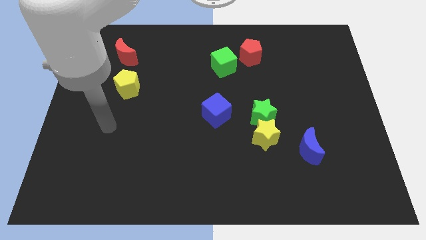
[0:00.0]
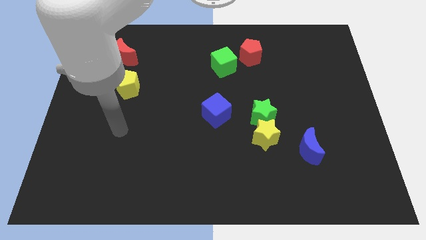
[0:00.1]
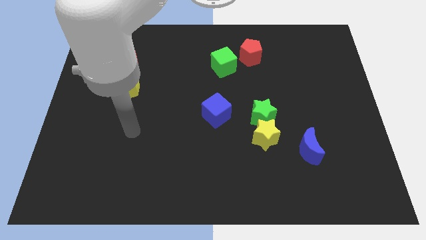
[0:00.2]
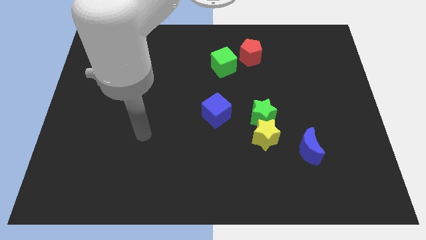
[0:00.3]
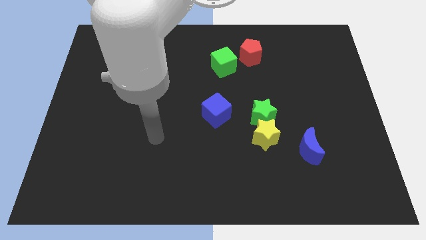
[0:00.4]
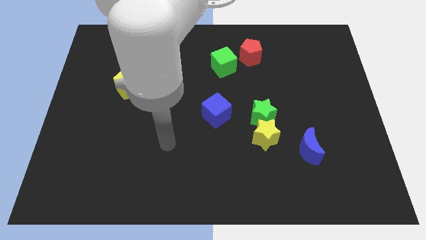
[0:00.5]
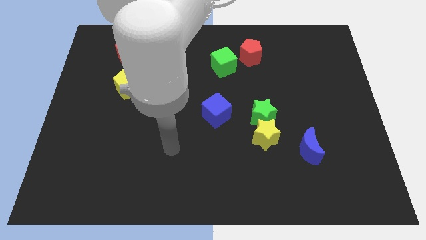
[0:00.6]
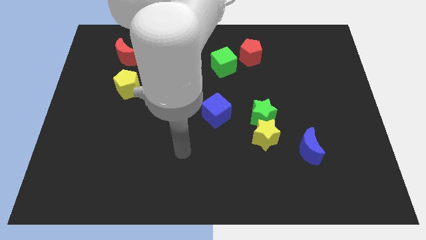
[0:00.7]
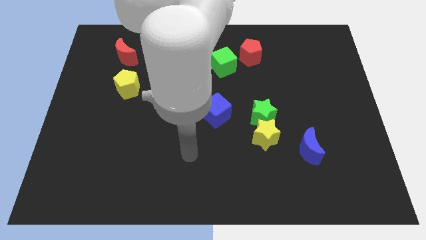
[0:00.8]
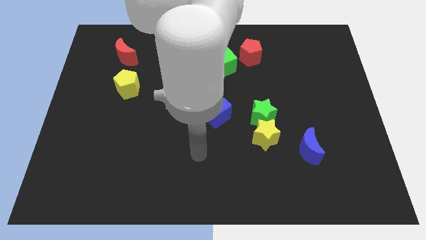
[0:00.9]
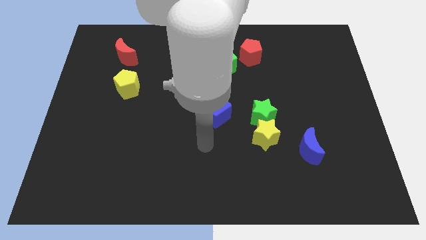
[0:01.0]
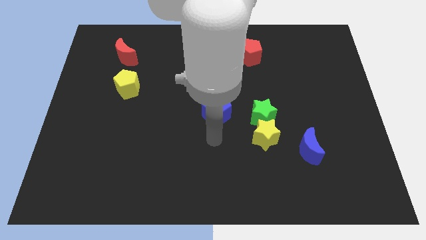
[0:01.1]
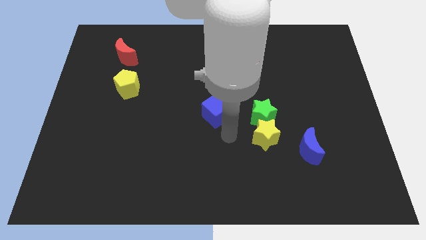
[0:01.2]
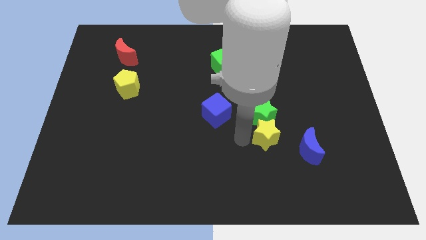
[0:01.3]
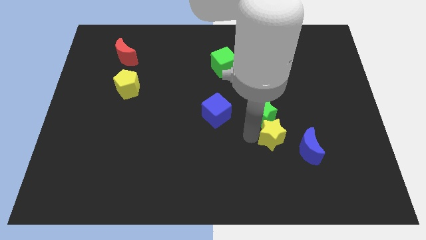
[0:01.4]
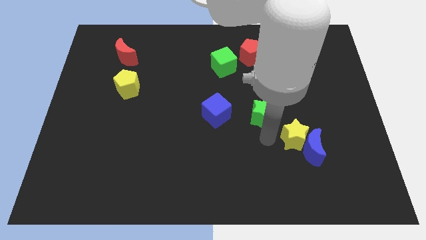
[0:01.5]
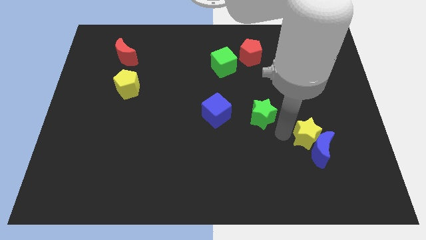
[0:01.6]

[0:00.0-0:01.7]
move the green star away from the yellow star

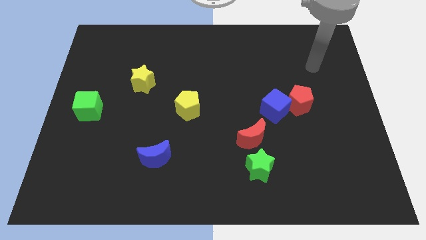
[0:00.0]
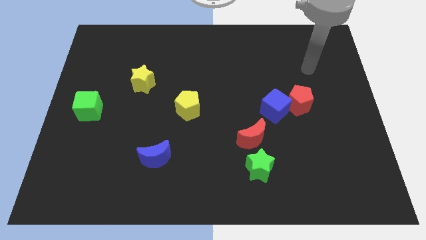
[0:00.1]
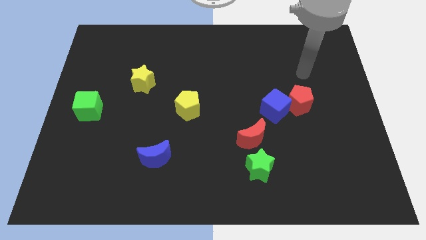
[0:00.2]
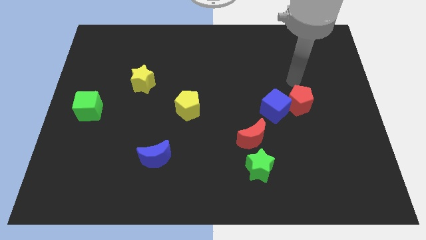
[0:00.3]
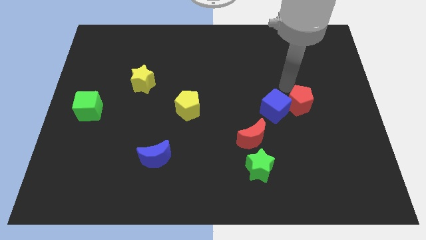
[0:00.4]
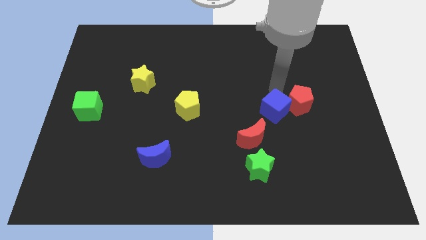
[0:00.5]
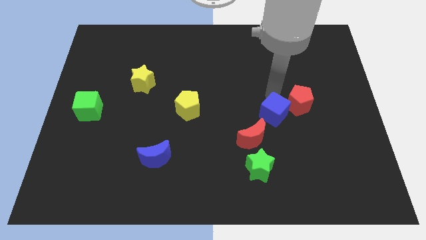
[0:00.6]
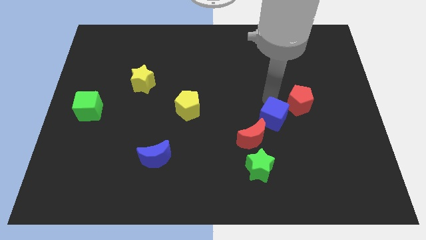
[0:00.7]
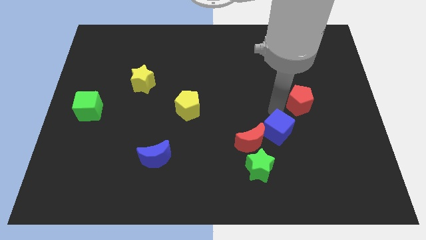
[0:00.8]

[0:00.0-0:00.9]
move the red pentagon away from the blue cube

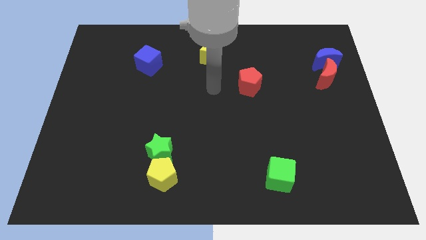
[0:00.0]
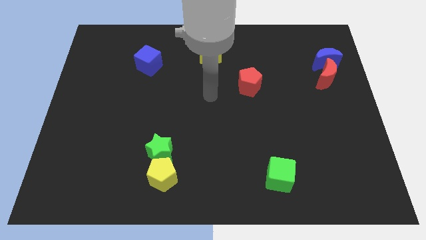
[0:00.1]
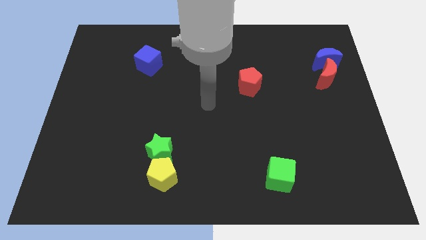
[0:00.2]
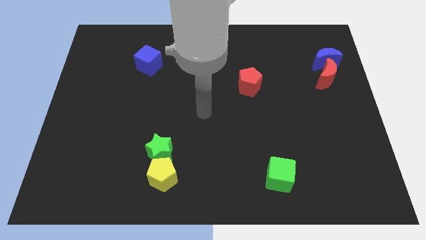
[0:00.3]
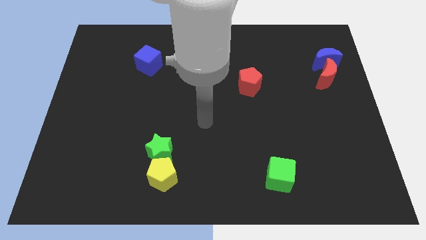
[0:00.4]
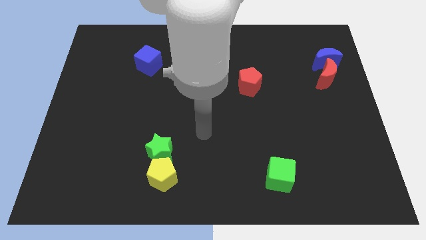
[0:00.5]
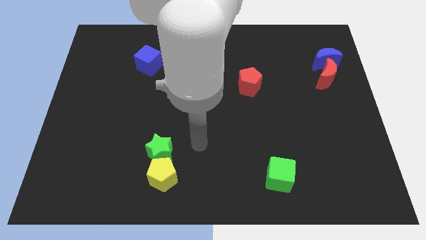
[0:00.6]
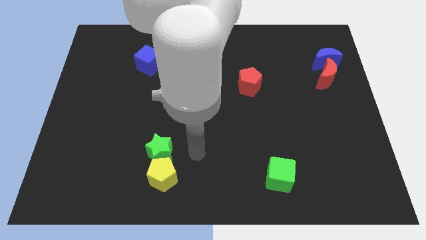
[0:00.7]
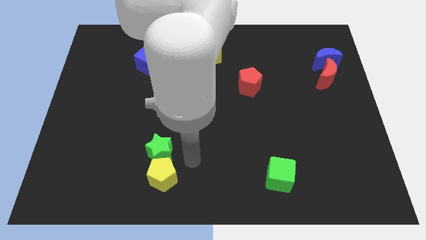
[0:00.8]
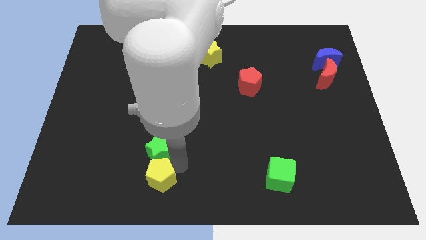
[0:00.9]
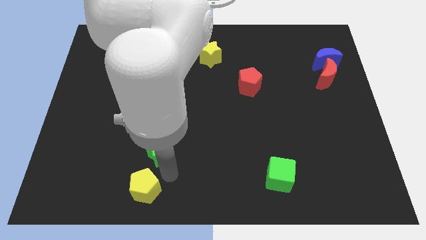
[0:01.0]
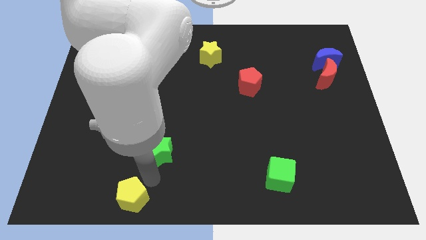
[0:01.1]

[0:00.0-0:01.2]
move the green star away from the yellow pentagon

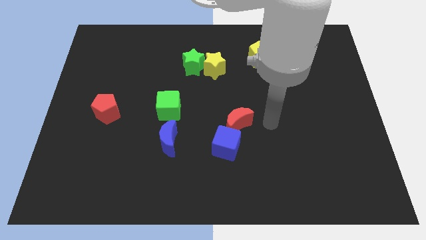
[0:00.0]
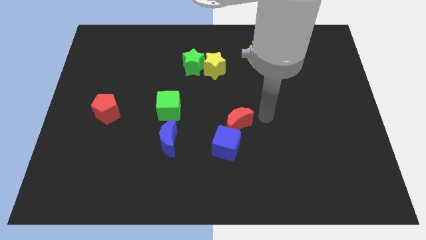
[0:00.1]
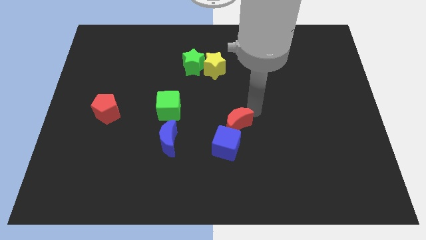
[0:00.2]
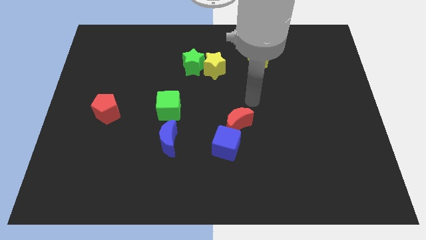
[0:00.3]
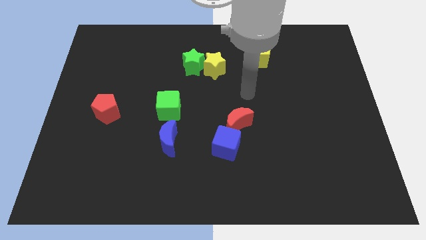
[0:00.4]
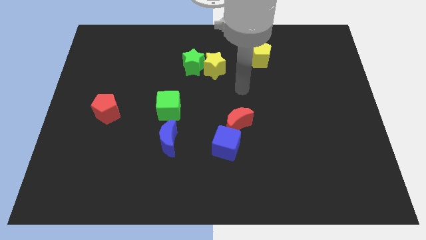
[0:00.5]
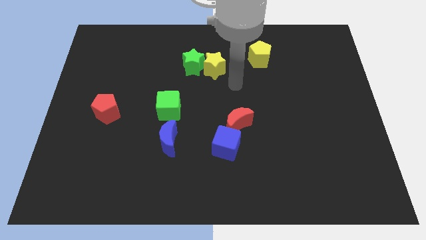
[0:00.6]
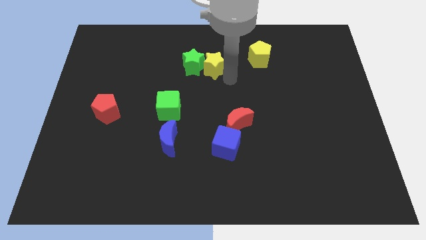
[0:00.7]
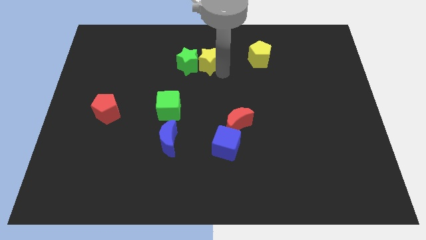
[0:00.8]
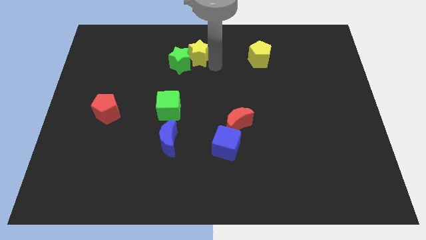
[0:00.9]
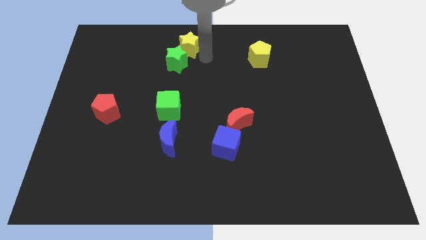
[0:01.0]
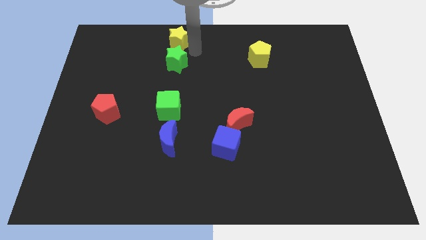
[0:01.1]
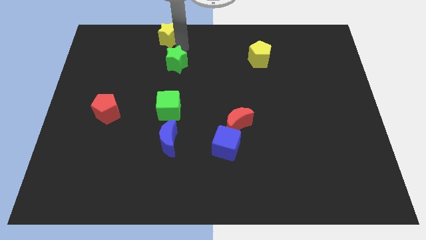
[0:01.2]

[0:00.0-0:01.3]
pull the green star apart from the yellow star

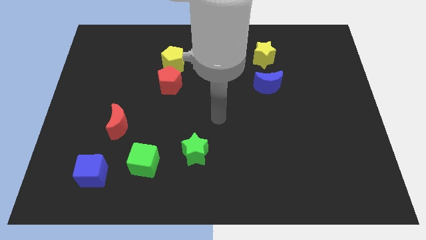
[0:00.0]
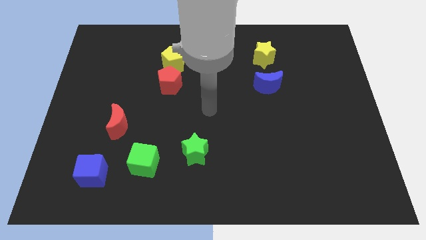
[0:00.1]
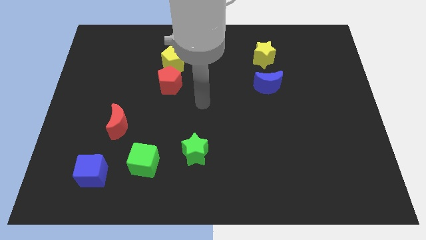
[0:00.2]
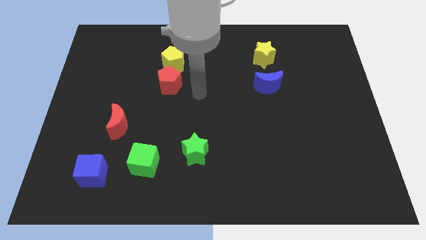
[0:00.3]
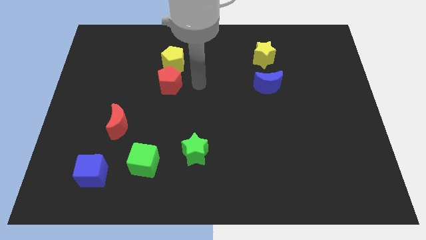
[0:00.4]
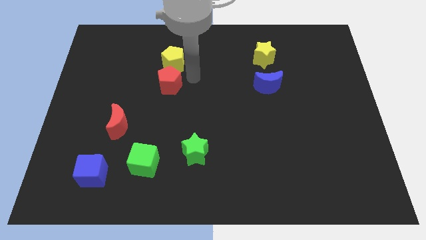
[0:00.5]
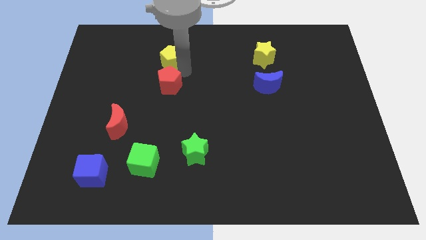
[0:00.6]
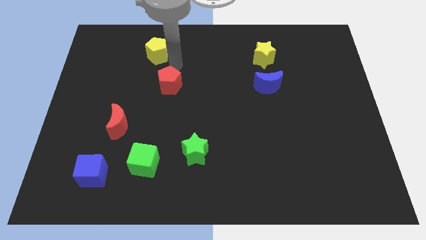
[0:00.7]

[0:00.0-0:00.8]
pull the red pentagon apart from the yellow pentagon

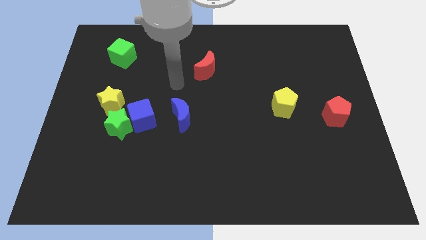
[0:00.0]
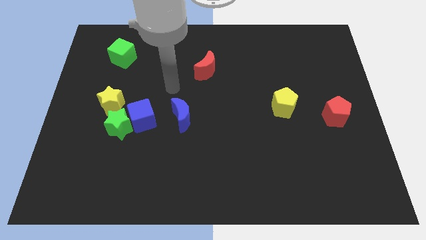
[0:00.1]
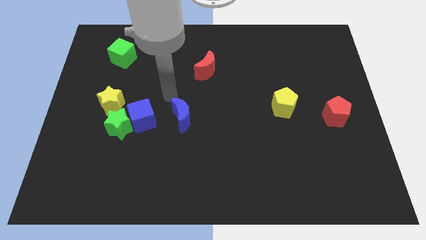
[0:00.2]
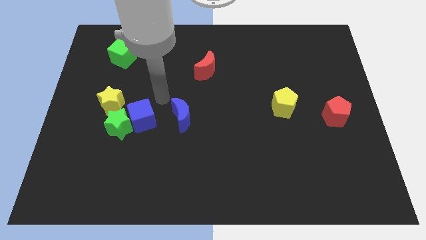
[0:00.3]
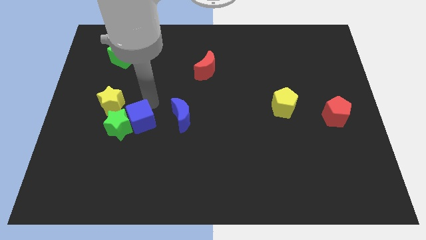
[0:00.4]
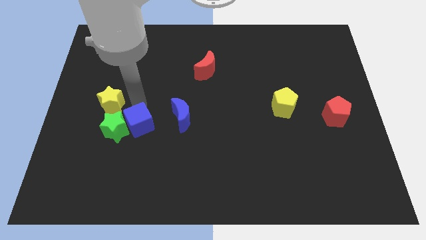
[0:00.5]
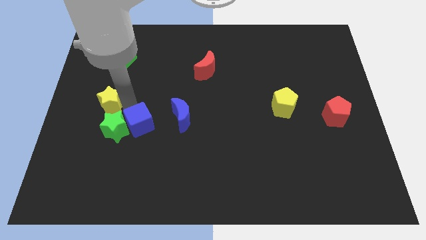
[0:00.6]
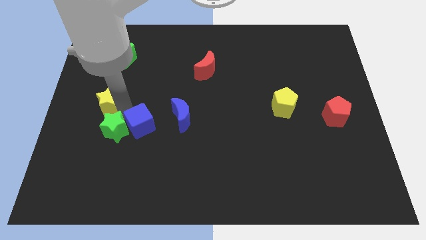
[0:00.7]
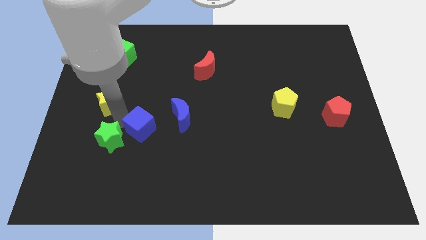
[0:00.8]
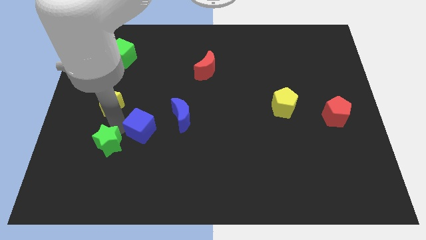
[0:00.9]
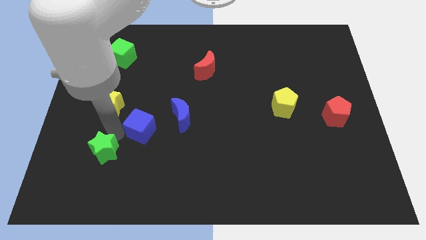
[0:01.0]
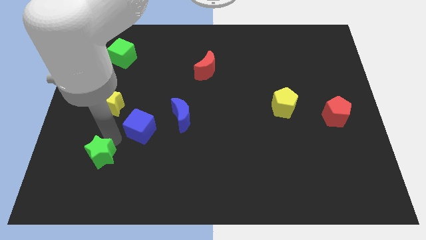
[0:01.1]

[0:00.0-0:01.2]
pull the green star apart from the blue cube and yellow star

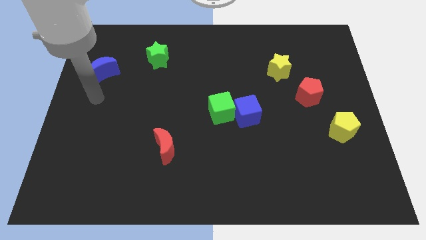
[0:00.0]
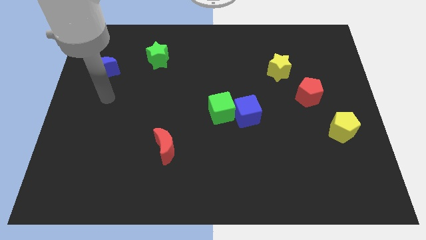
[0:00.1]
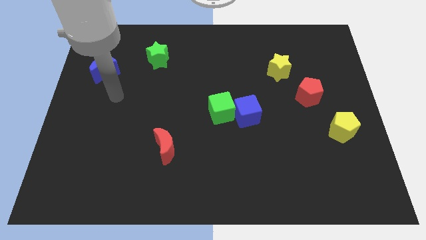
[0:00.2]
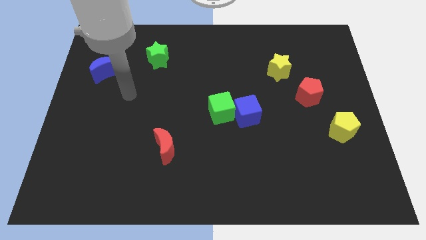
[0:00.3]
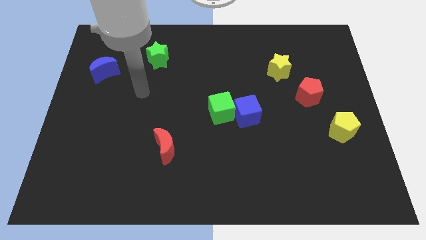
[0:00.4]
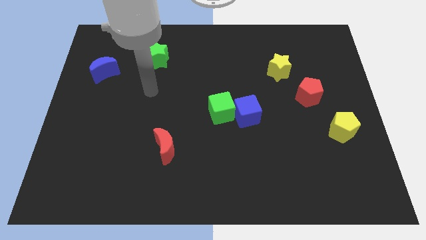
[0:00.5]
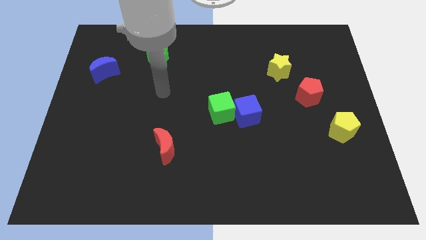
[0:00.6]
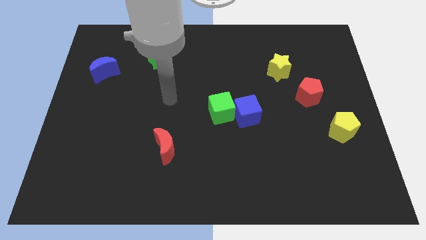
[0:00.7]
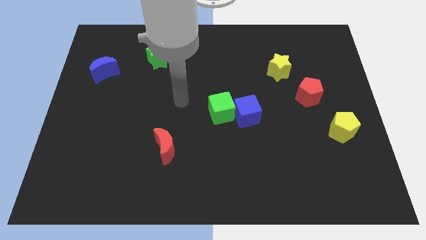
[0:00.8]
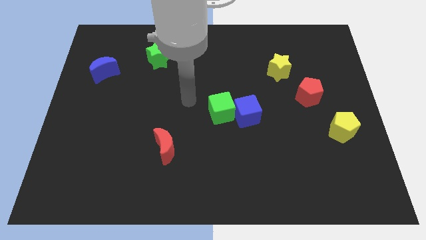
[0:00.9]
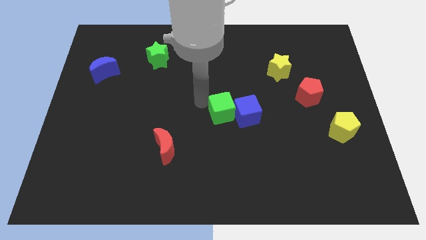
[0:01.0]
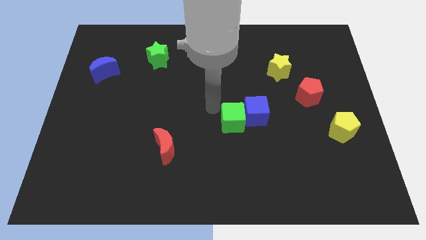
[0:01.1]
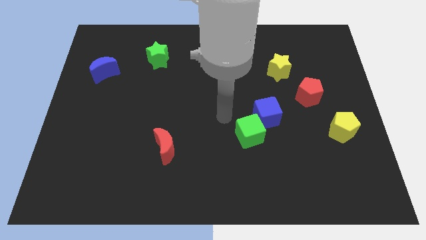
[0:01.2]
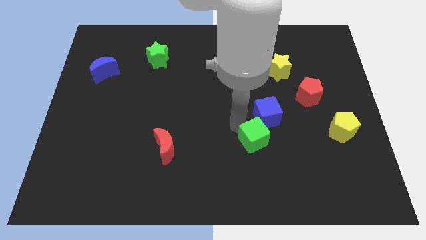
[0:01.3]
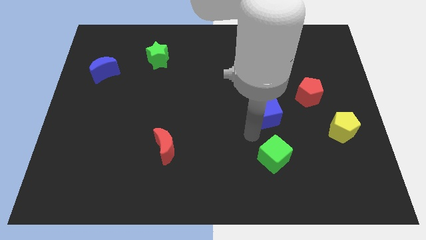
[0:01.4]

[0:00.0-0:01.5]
separate the blue cube from the green cube

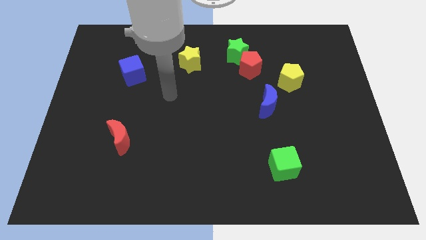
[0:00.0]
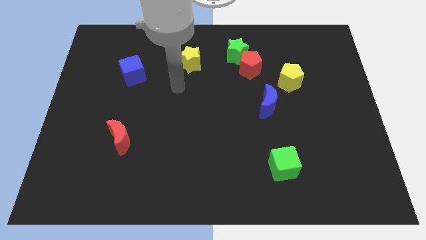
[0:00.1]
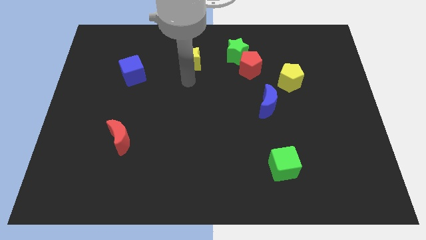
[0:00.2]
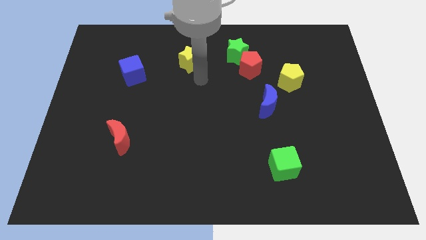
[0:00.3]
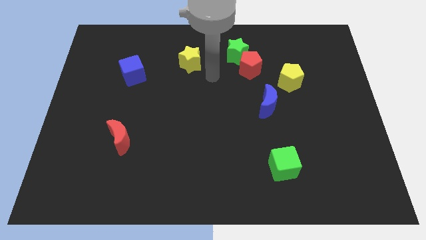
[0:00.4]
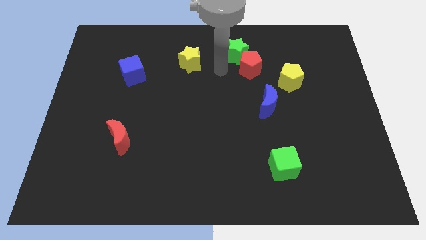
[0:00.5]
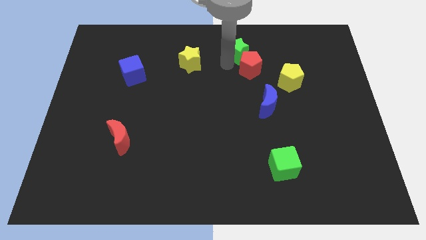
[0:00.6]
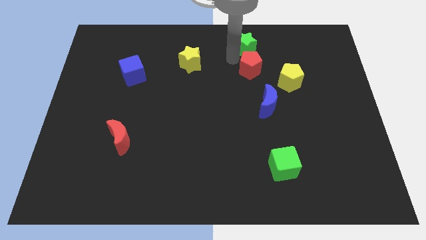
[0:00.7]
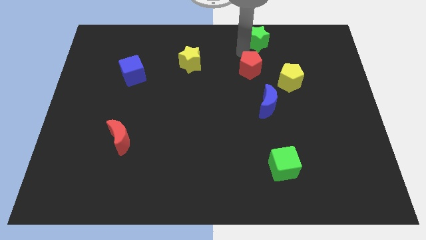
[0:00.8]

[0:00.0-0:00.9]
separate the red pentagon from the green star
